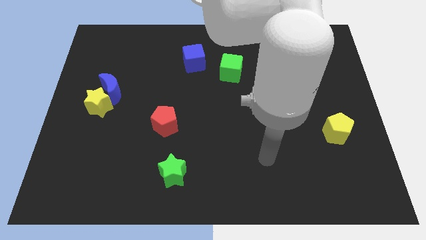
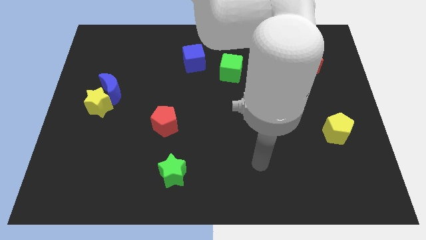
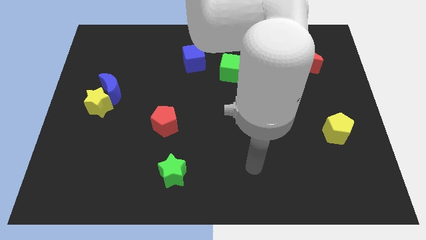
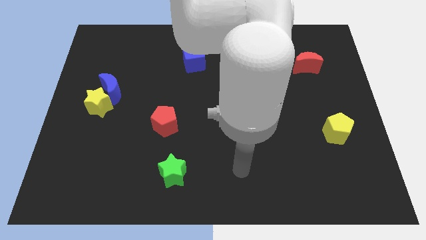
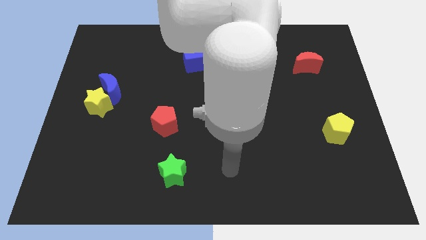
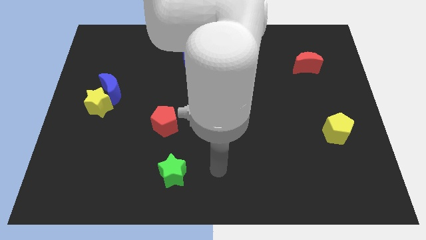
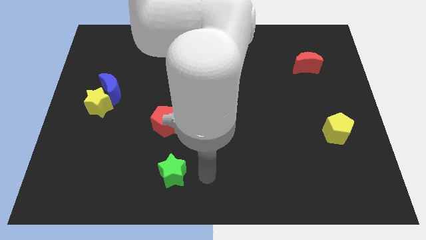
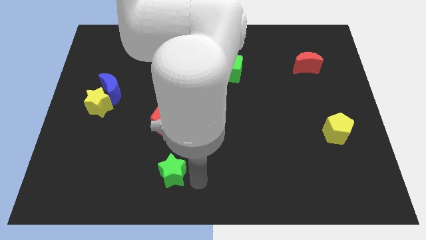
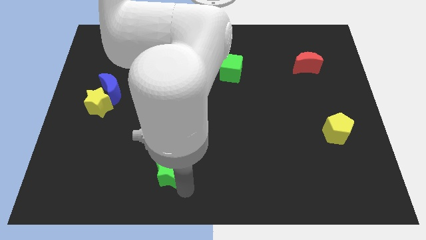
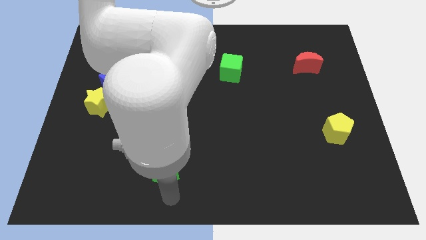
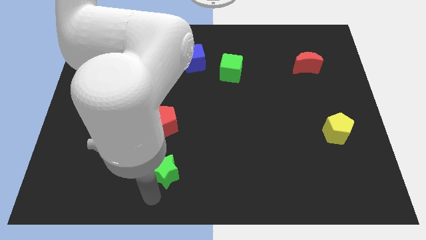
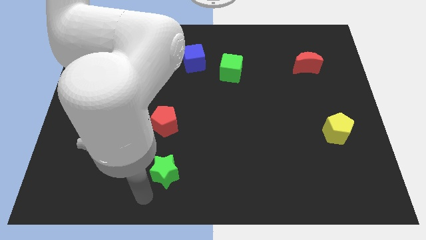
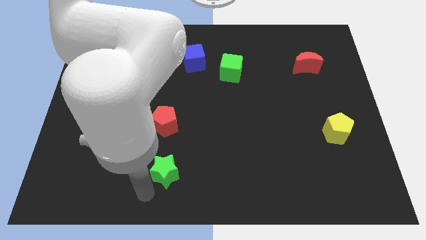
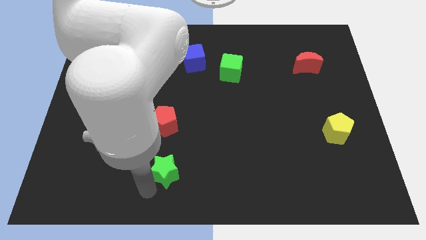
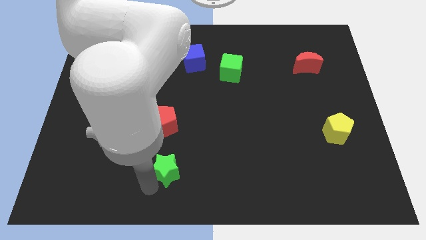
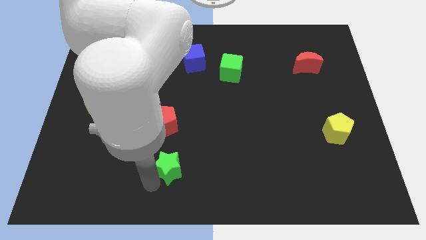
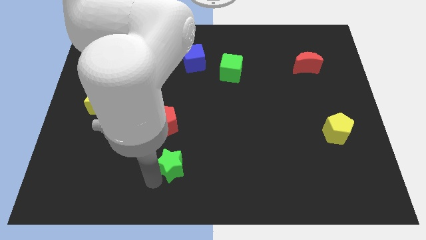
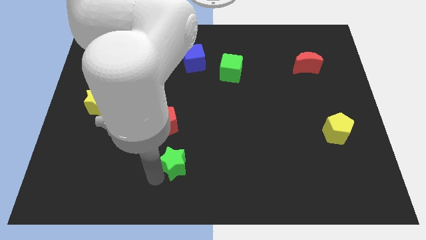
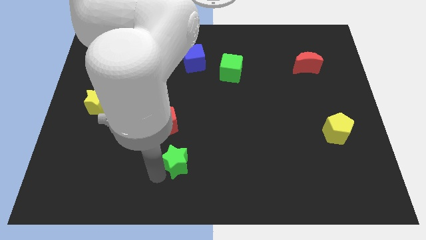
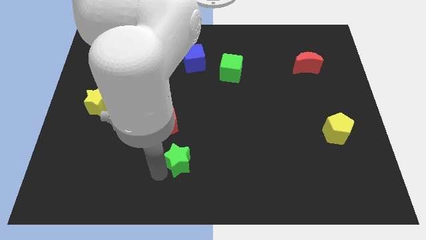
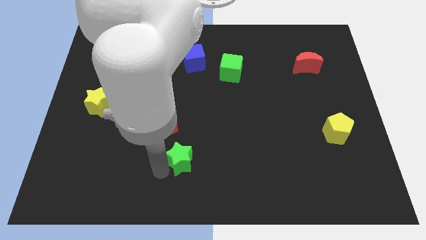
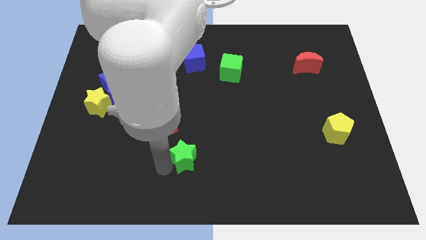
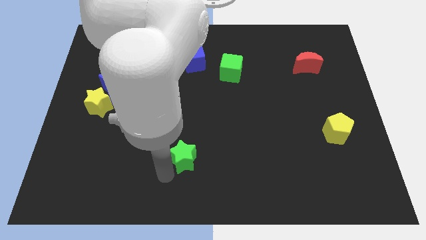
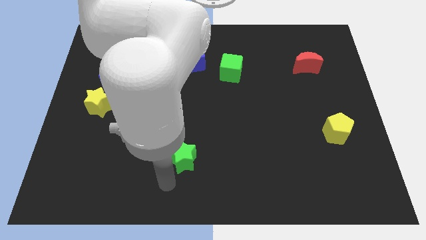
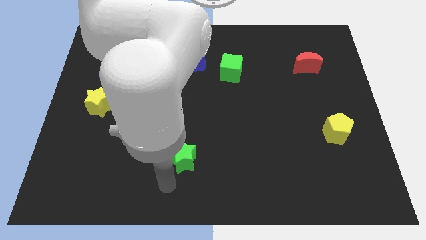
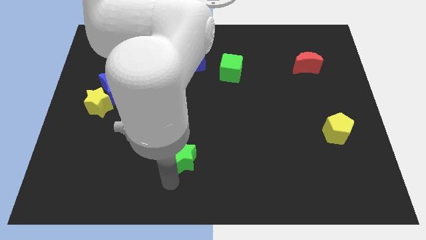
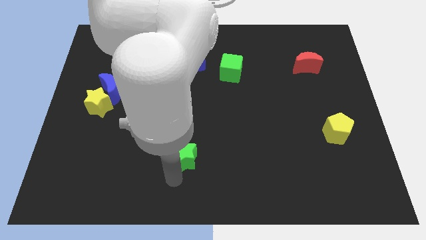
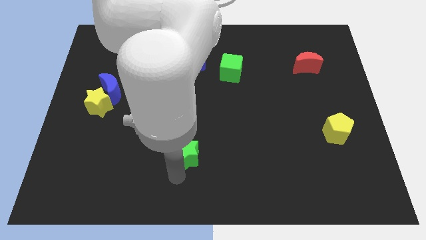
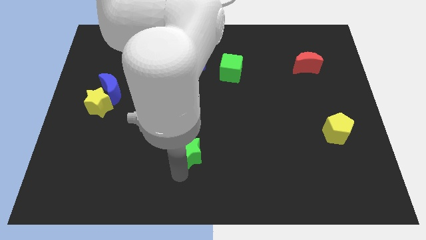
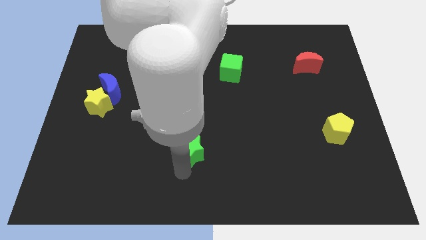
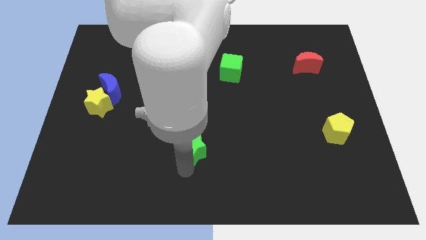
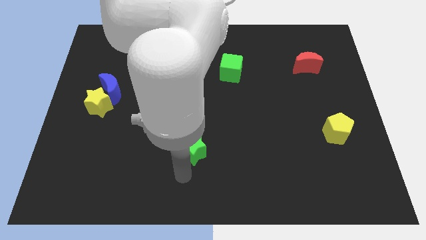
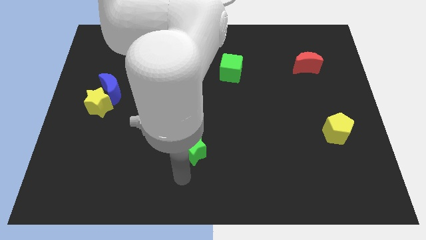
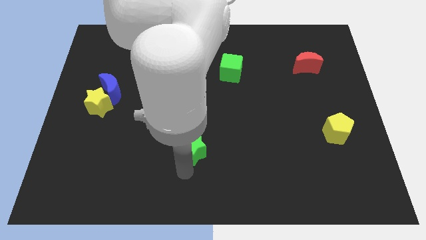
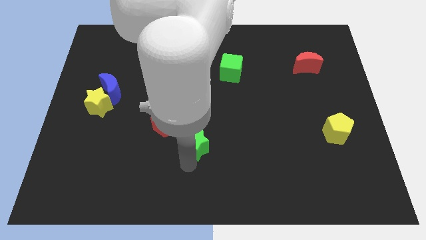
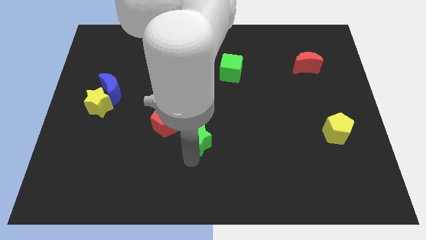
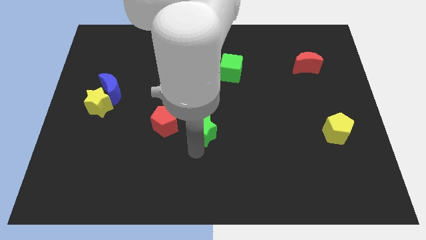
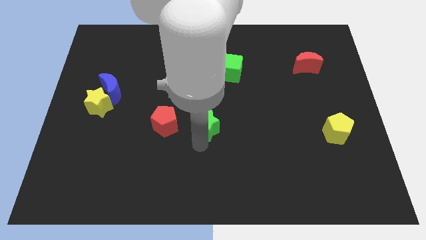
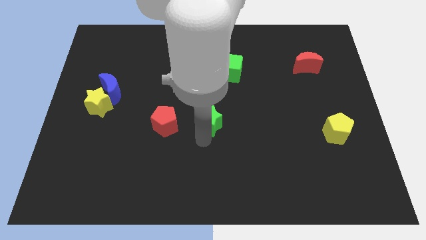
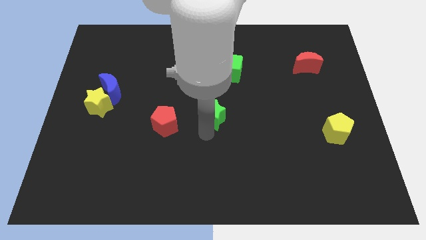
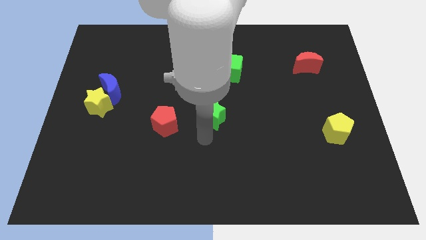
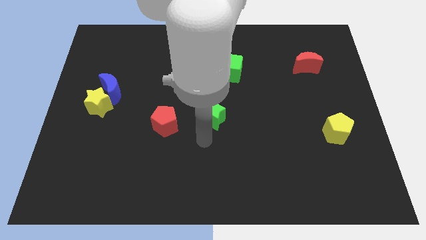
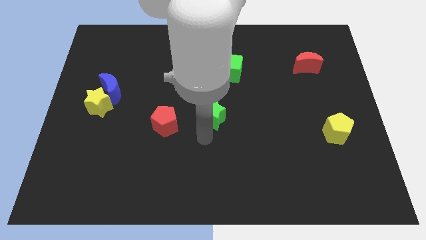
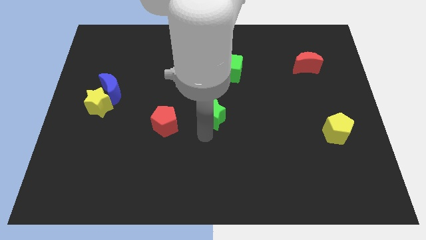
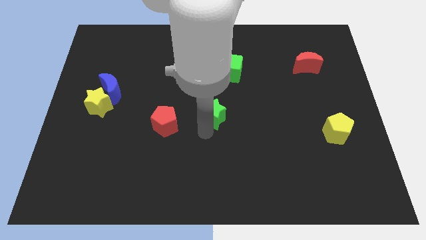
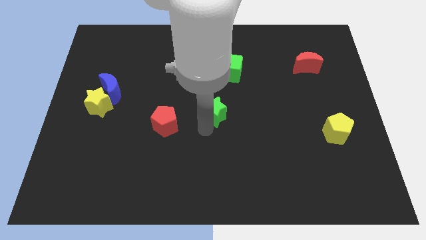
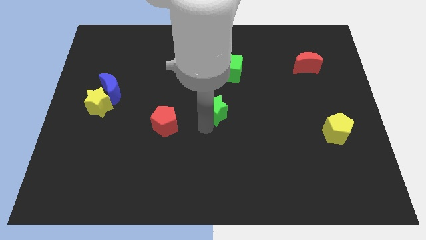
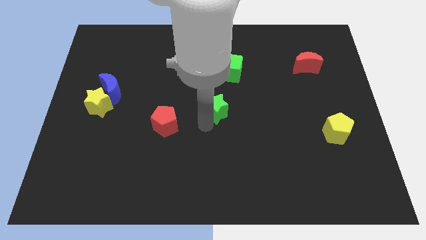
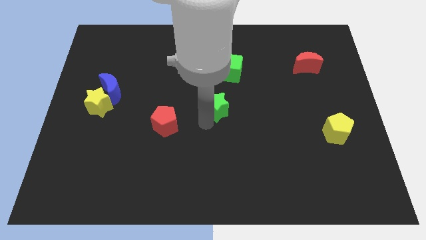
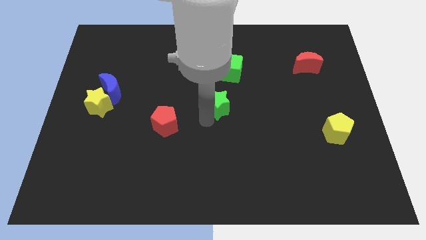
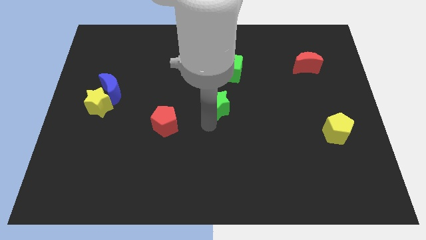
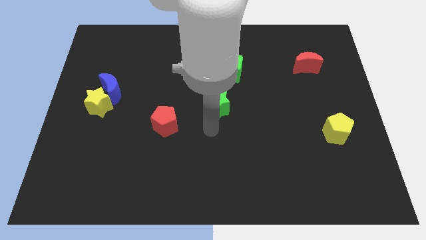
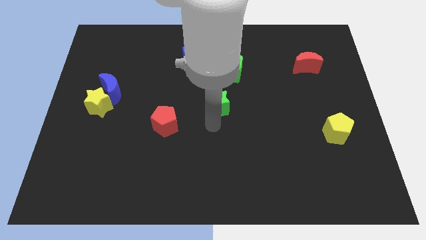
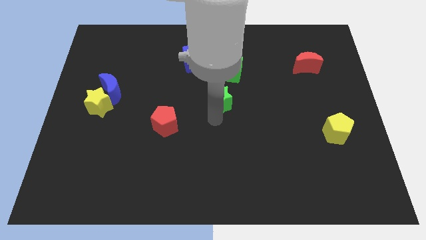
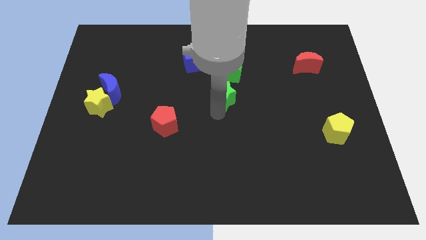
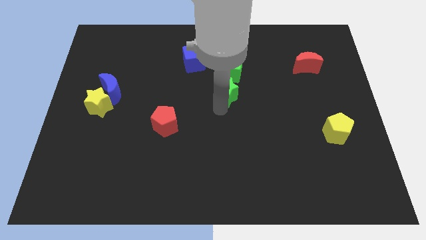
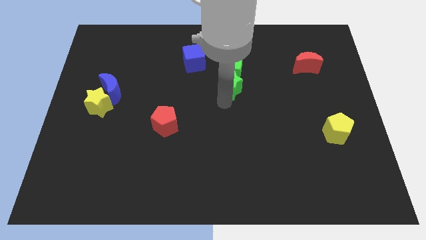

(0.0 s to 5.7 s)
push the green star next to the green cube
